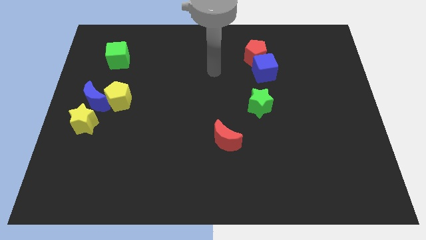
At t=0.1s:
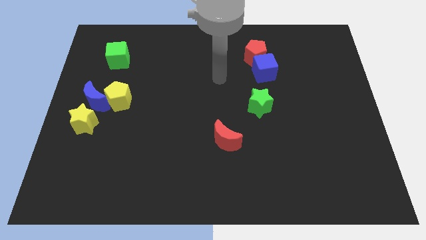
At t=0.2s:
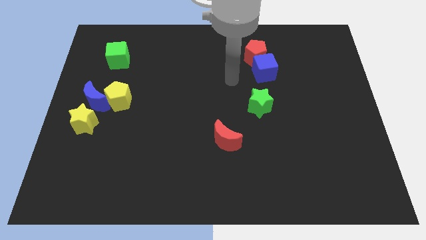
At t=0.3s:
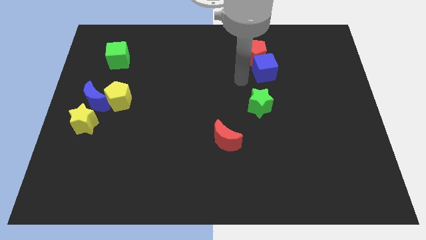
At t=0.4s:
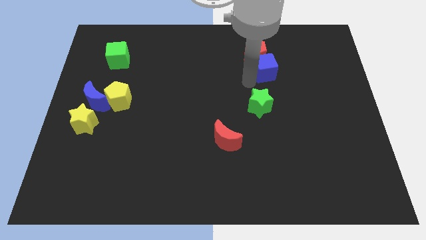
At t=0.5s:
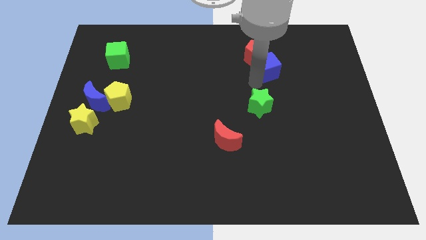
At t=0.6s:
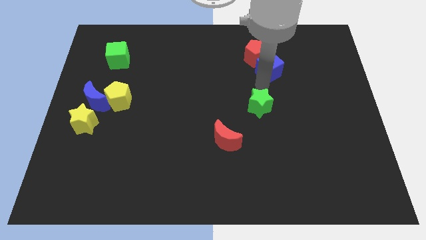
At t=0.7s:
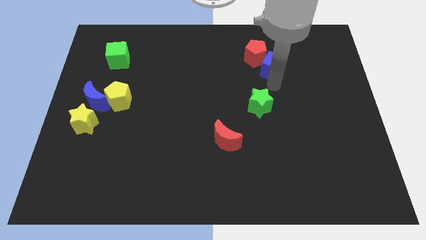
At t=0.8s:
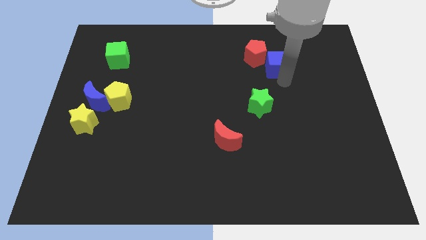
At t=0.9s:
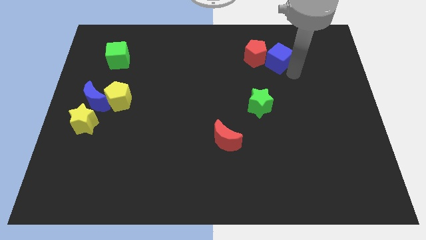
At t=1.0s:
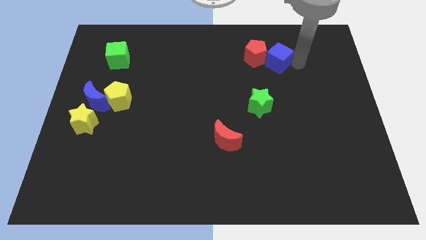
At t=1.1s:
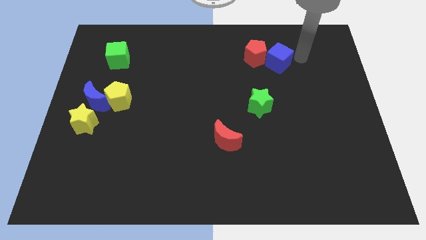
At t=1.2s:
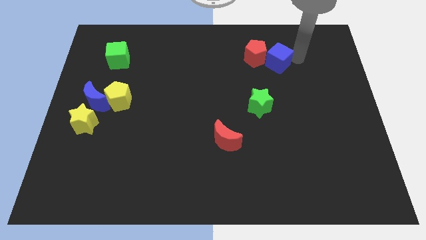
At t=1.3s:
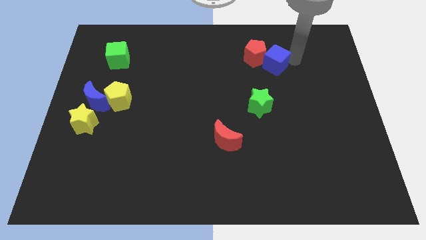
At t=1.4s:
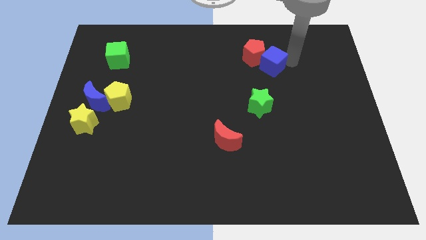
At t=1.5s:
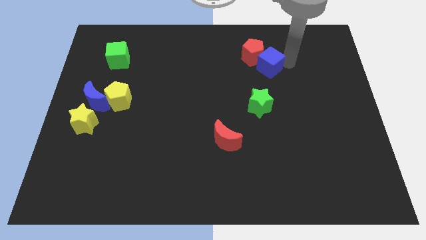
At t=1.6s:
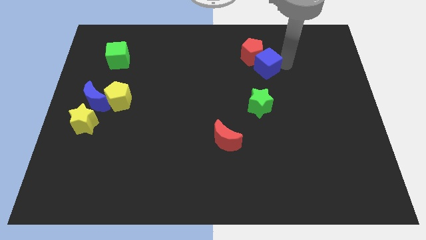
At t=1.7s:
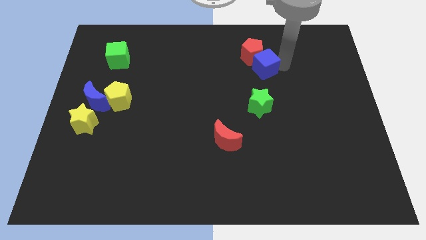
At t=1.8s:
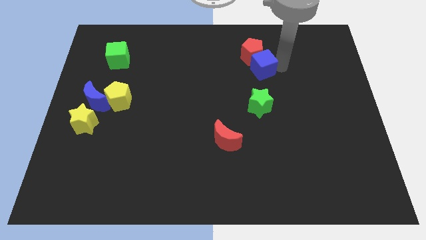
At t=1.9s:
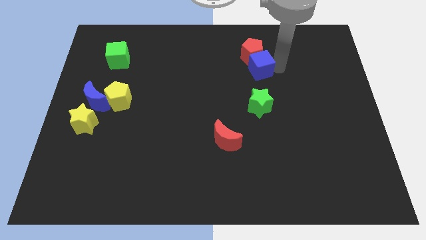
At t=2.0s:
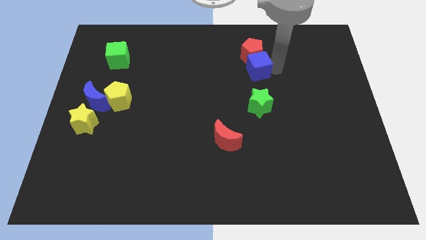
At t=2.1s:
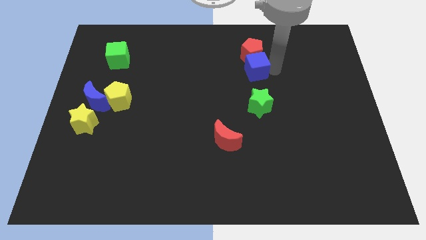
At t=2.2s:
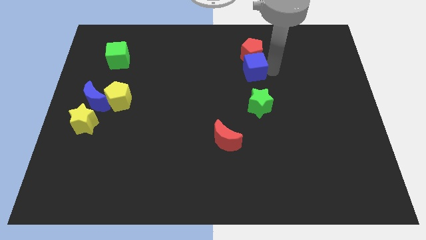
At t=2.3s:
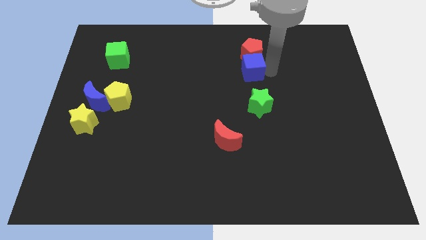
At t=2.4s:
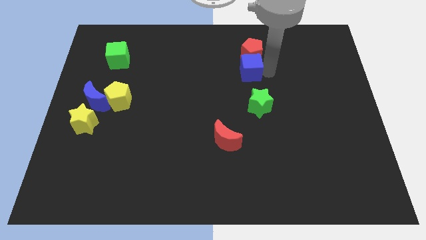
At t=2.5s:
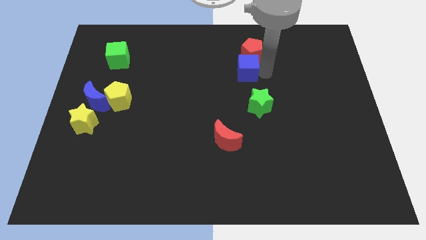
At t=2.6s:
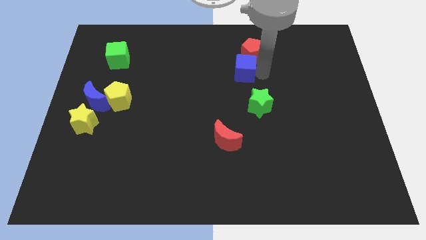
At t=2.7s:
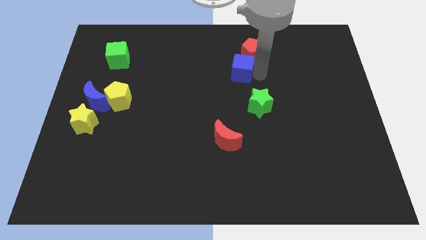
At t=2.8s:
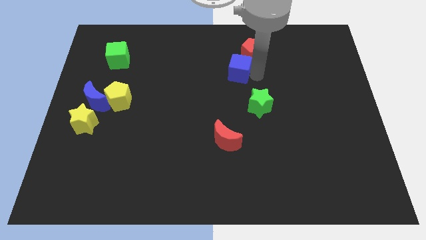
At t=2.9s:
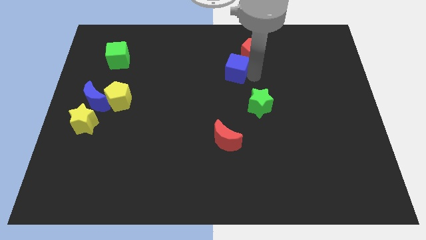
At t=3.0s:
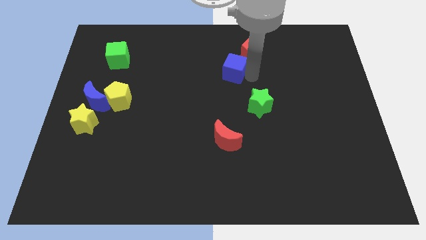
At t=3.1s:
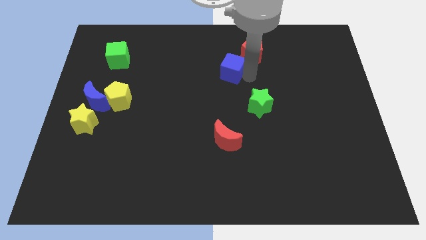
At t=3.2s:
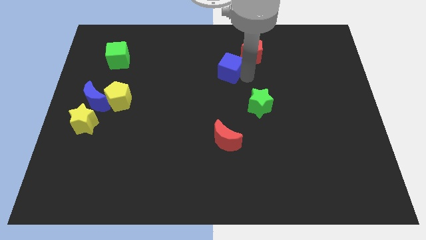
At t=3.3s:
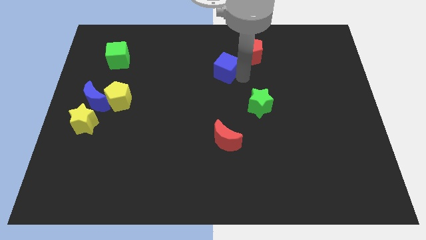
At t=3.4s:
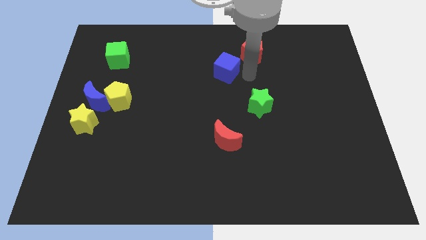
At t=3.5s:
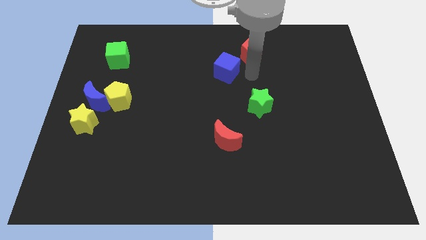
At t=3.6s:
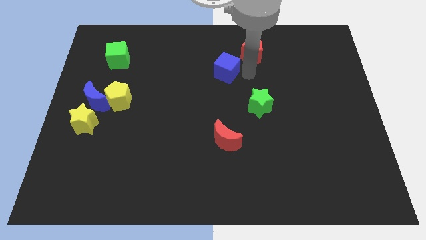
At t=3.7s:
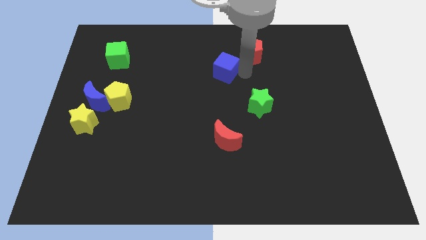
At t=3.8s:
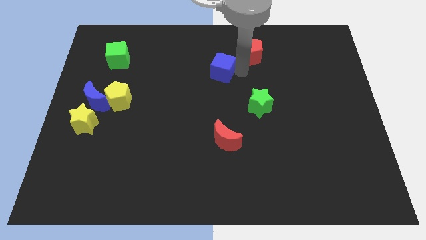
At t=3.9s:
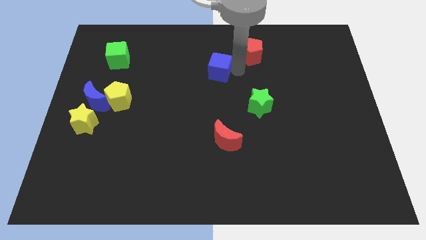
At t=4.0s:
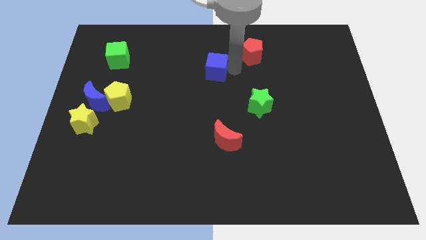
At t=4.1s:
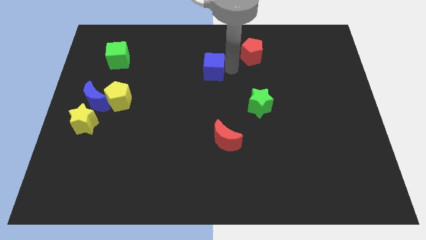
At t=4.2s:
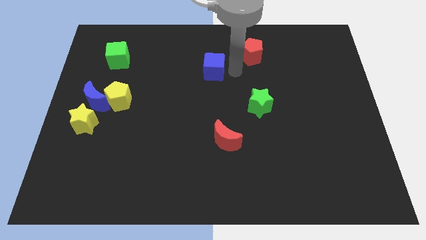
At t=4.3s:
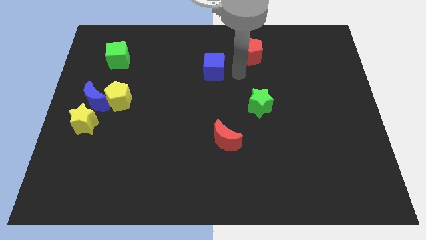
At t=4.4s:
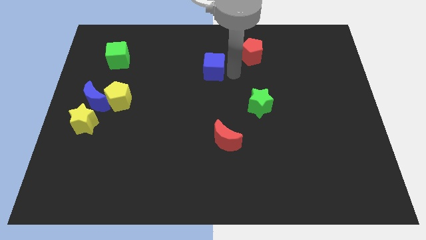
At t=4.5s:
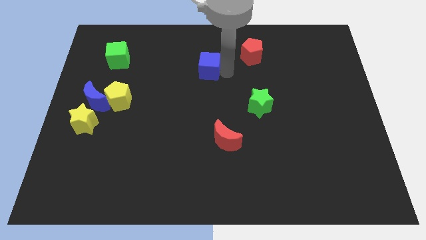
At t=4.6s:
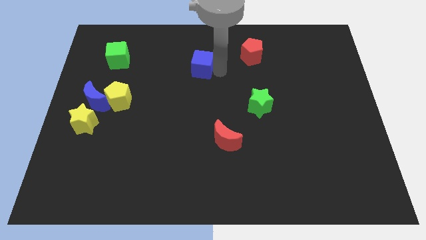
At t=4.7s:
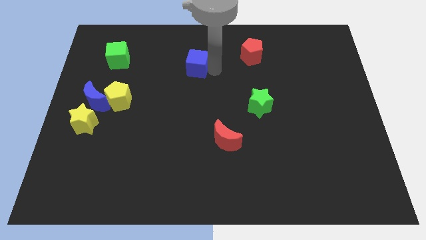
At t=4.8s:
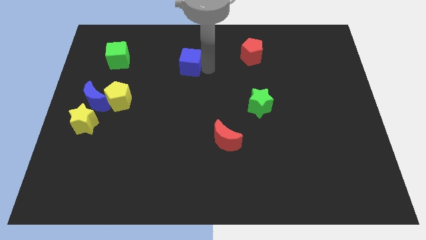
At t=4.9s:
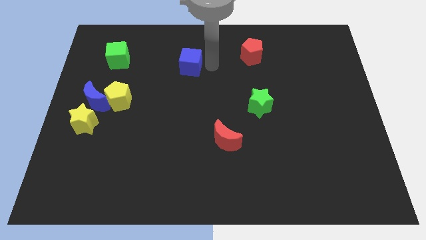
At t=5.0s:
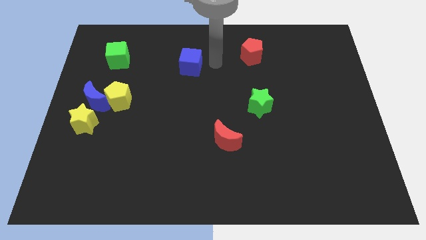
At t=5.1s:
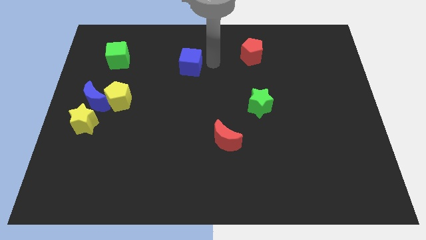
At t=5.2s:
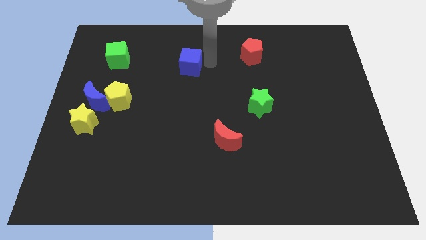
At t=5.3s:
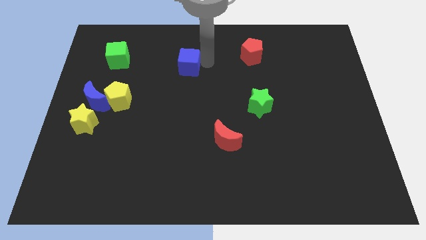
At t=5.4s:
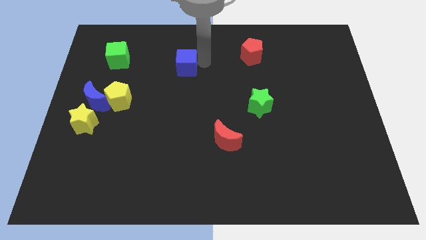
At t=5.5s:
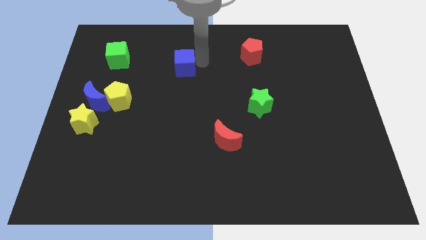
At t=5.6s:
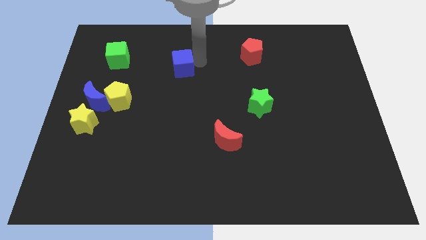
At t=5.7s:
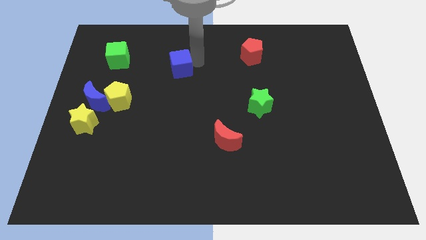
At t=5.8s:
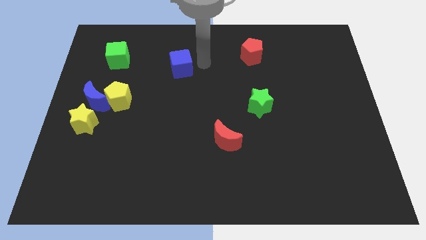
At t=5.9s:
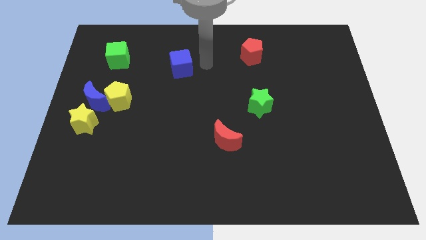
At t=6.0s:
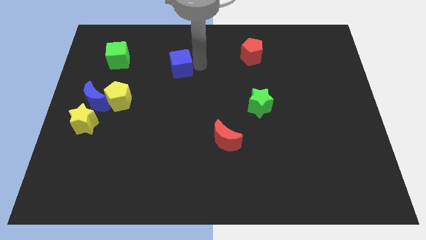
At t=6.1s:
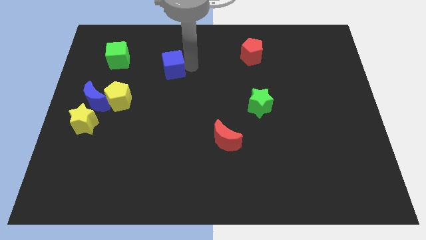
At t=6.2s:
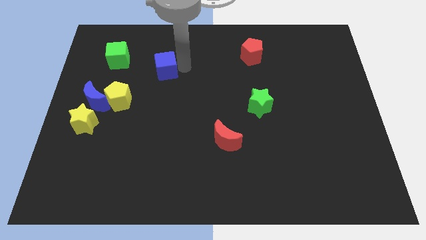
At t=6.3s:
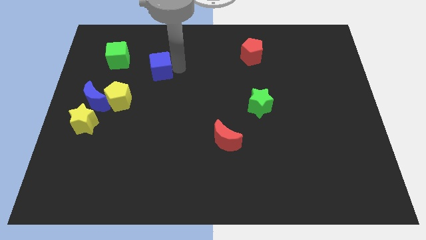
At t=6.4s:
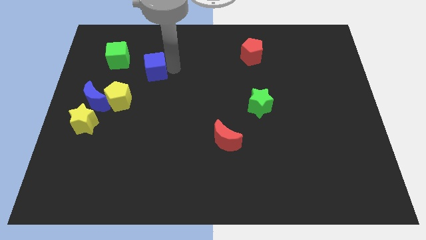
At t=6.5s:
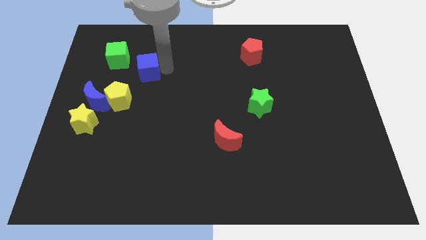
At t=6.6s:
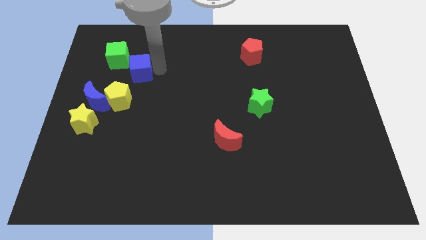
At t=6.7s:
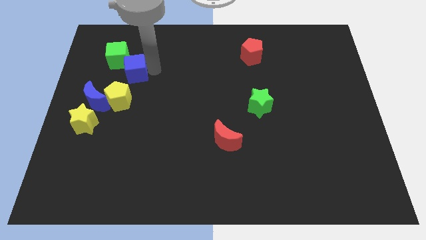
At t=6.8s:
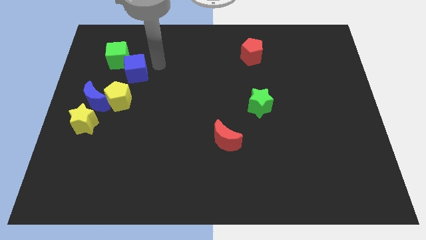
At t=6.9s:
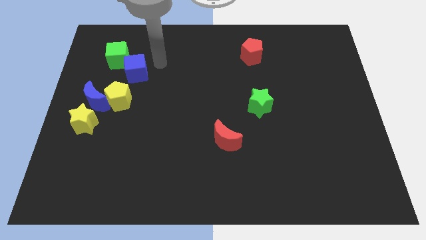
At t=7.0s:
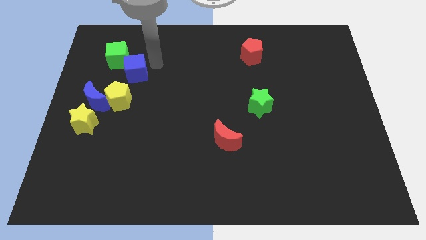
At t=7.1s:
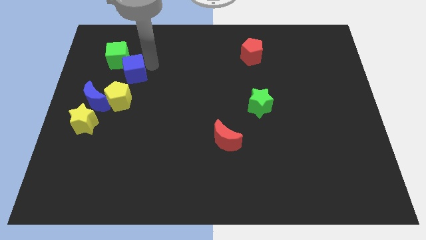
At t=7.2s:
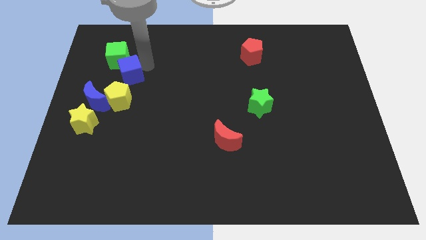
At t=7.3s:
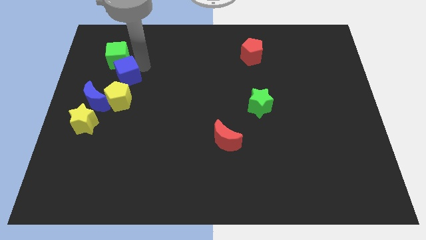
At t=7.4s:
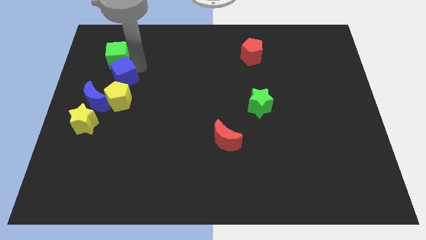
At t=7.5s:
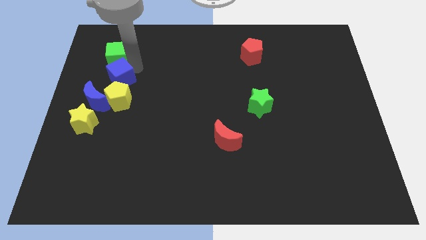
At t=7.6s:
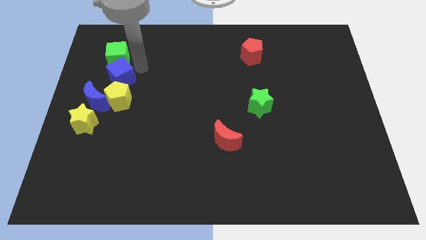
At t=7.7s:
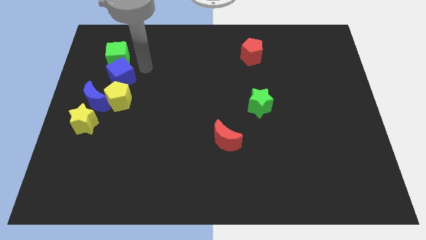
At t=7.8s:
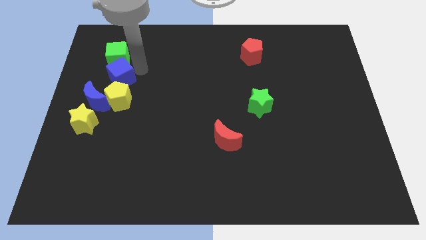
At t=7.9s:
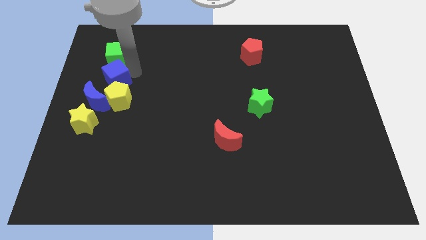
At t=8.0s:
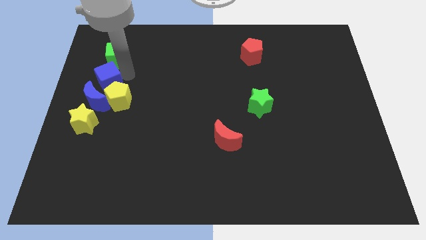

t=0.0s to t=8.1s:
put the blue cube to the top of the yellow star
